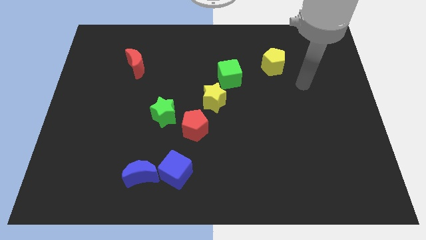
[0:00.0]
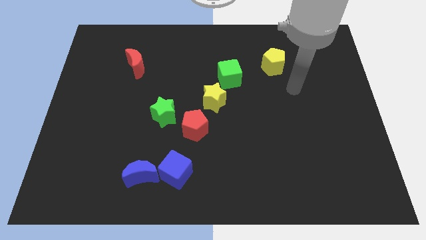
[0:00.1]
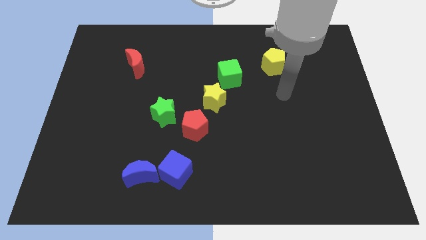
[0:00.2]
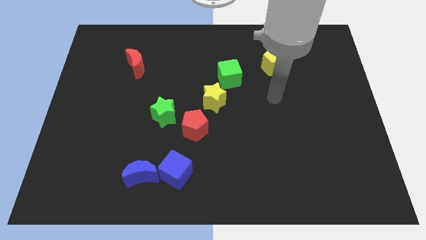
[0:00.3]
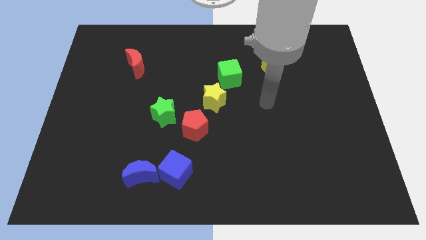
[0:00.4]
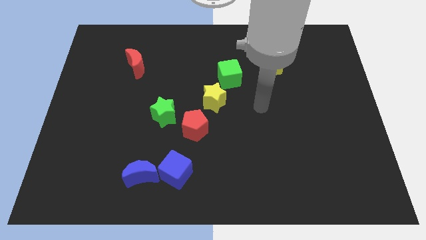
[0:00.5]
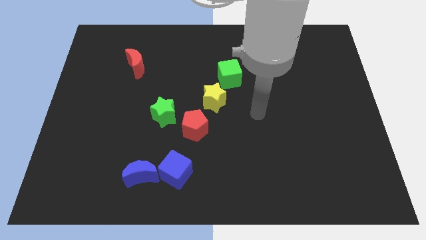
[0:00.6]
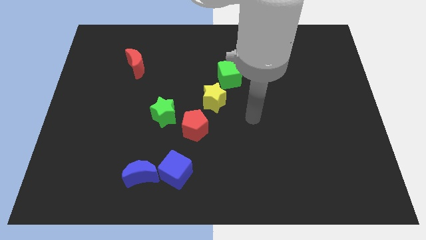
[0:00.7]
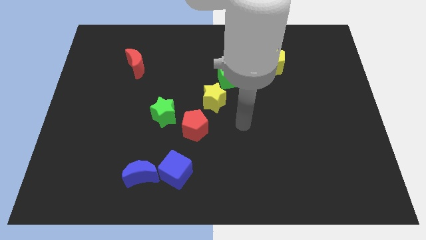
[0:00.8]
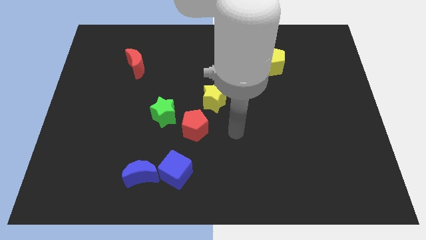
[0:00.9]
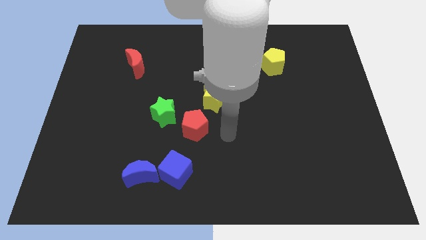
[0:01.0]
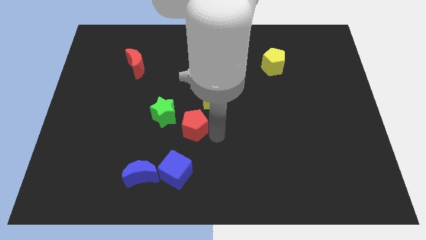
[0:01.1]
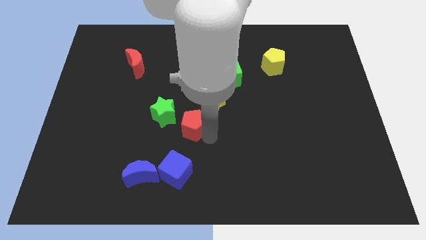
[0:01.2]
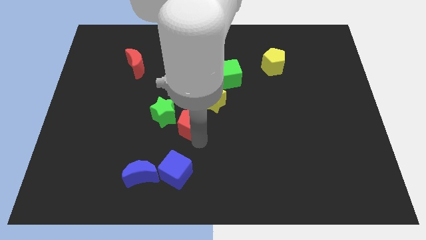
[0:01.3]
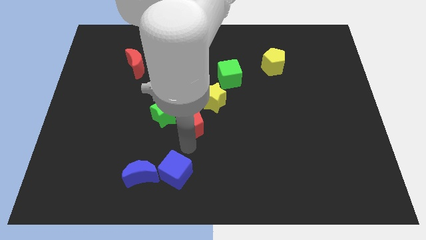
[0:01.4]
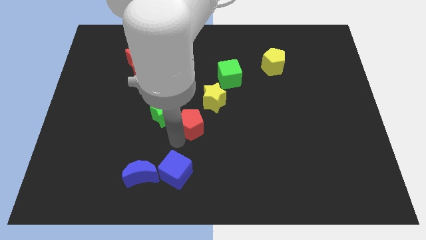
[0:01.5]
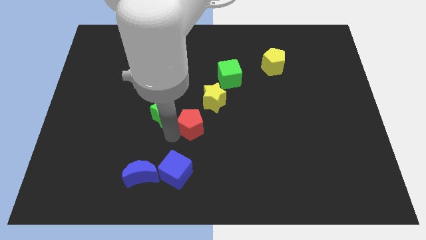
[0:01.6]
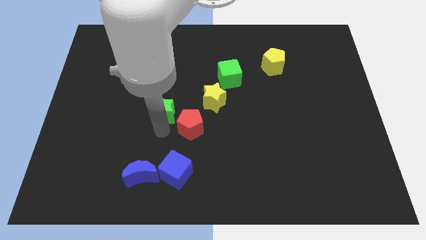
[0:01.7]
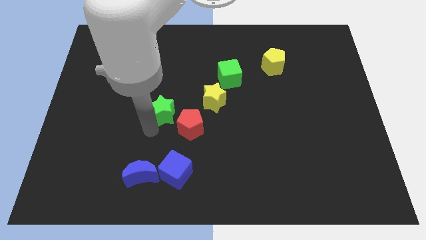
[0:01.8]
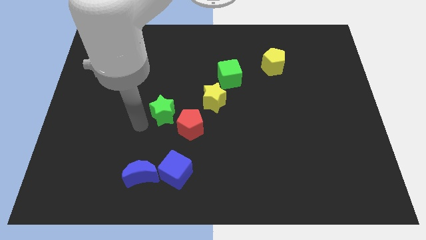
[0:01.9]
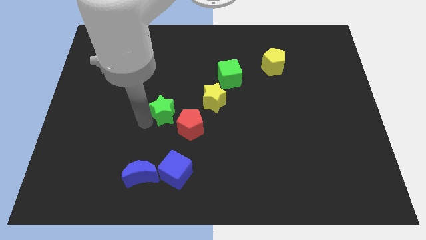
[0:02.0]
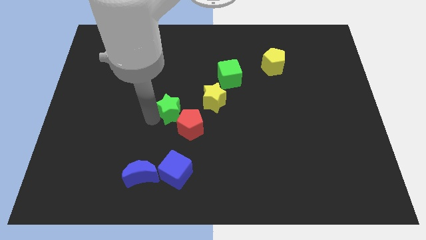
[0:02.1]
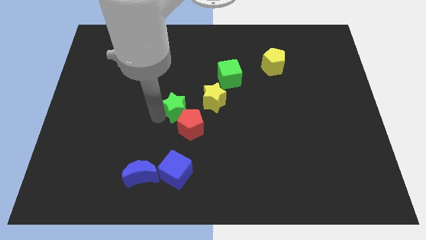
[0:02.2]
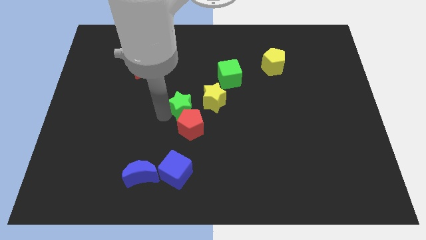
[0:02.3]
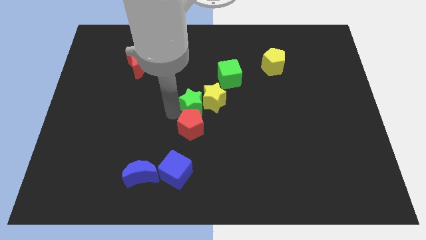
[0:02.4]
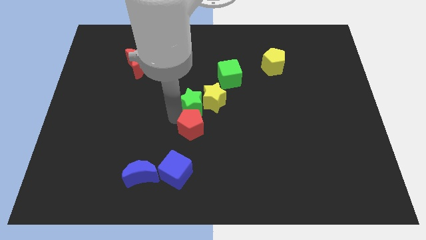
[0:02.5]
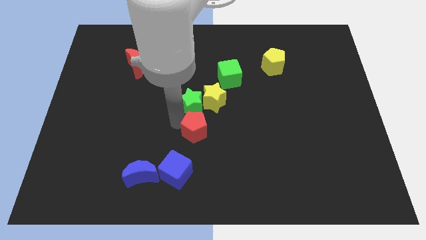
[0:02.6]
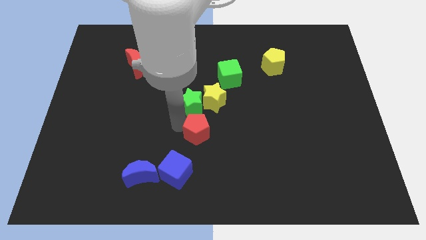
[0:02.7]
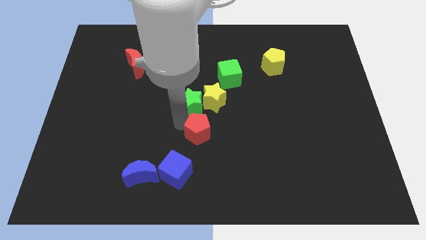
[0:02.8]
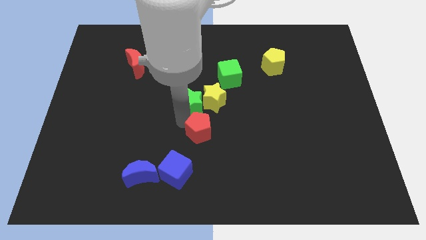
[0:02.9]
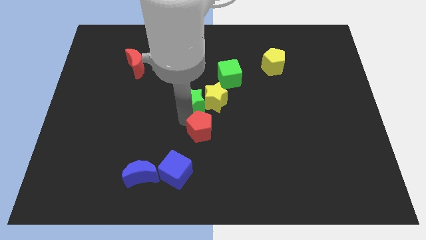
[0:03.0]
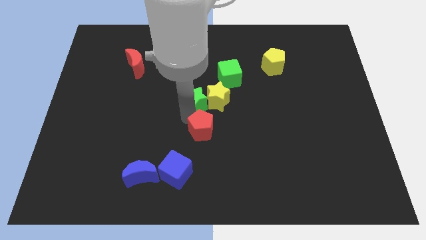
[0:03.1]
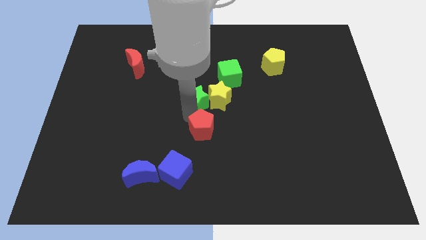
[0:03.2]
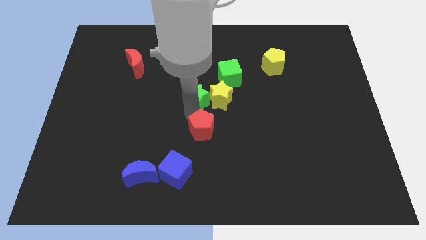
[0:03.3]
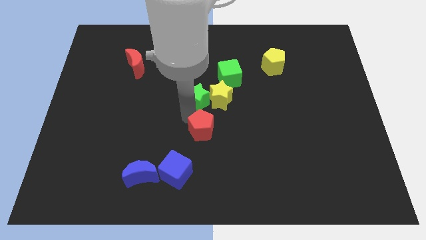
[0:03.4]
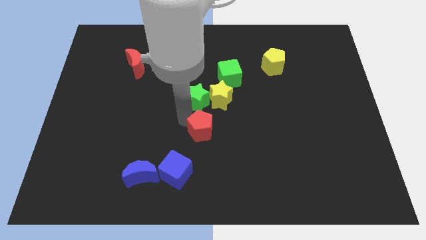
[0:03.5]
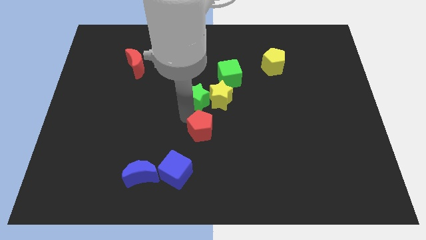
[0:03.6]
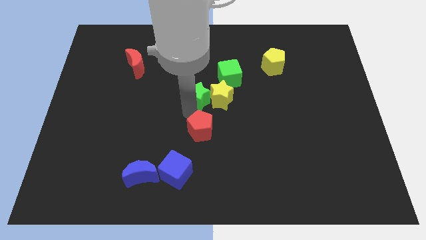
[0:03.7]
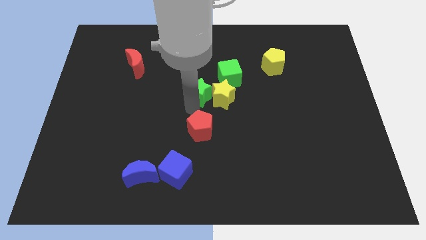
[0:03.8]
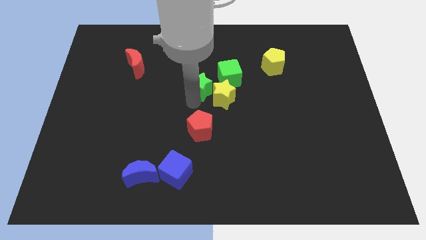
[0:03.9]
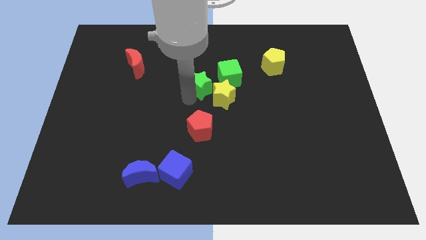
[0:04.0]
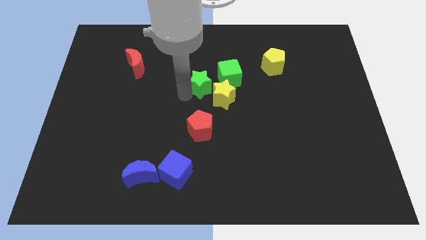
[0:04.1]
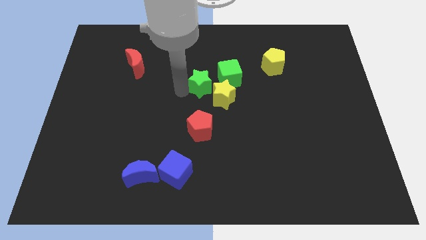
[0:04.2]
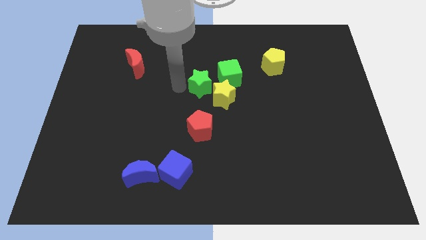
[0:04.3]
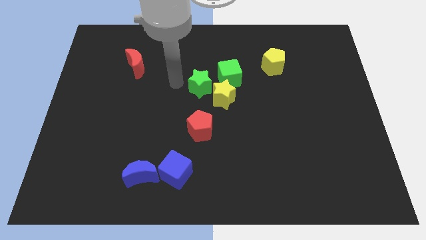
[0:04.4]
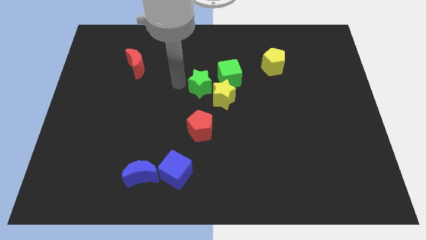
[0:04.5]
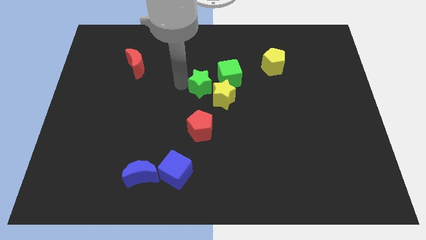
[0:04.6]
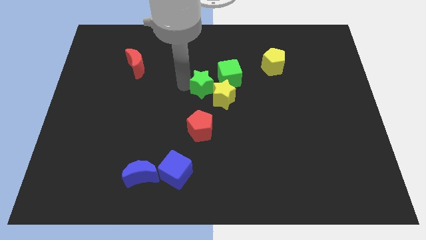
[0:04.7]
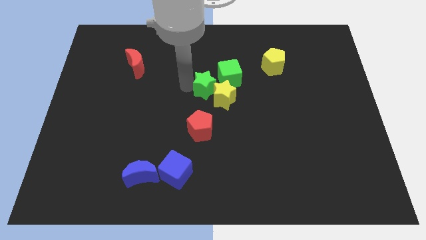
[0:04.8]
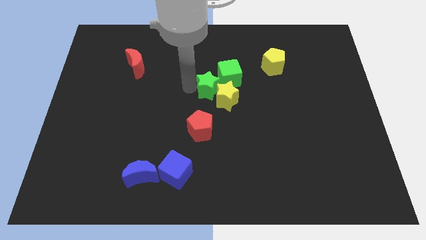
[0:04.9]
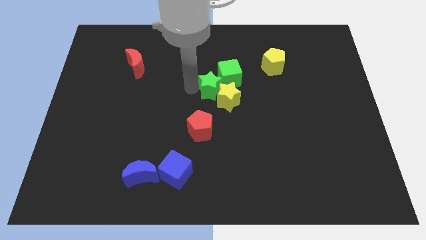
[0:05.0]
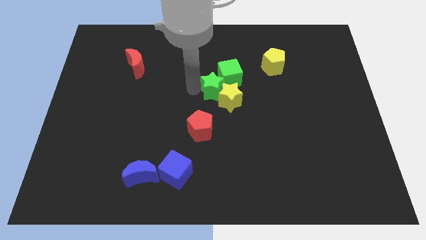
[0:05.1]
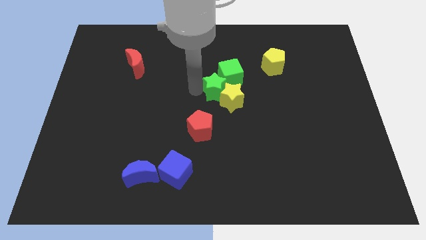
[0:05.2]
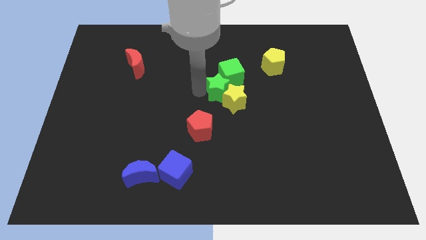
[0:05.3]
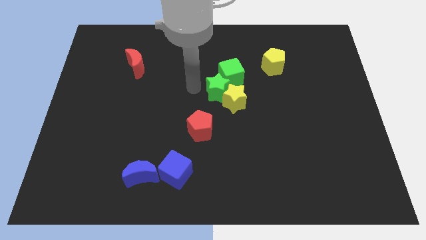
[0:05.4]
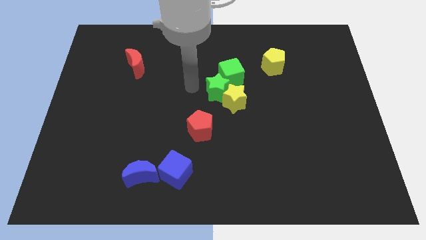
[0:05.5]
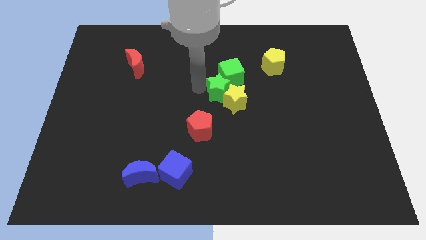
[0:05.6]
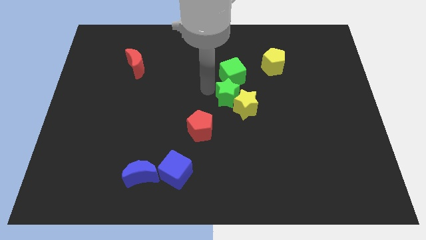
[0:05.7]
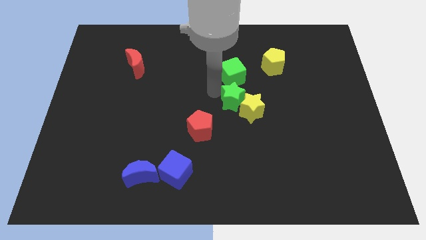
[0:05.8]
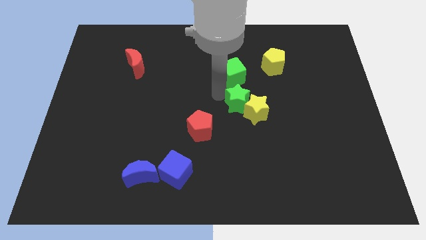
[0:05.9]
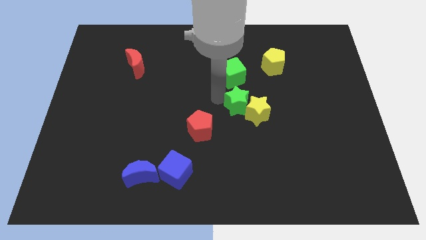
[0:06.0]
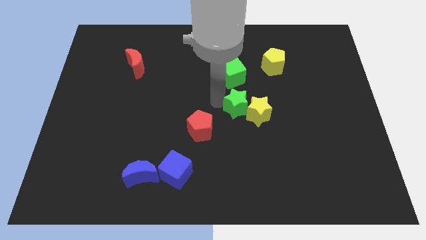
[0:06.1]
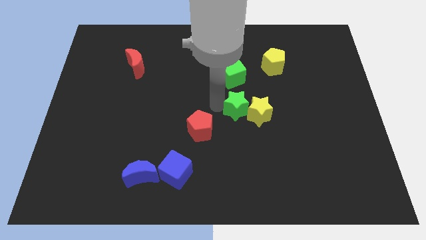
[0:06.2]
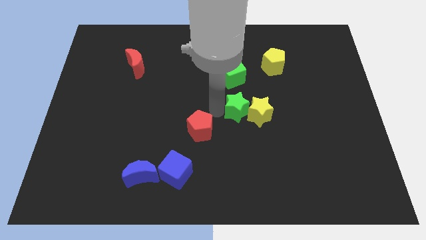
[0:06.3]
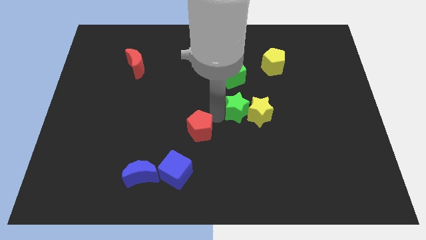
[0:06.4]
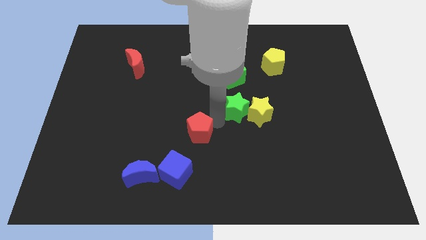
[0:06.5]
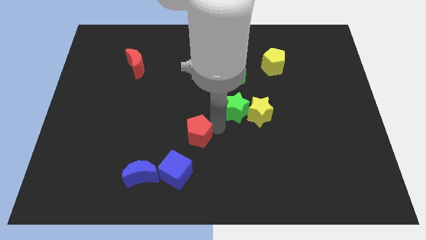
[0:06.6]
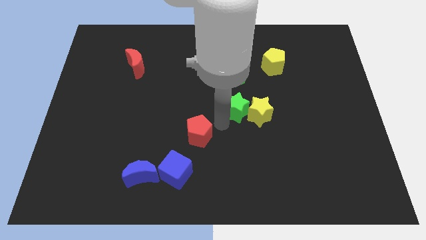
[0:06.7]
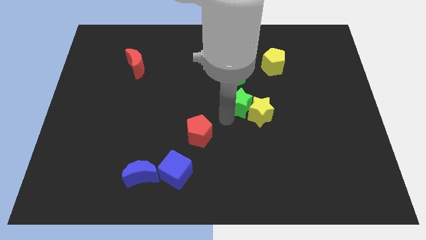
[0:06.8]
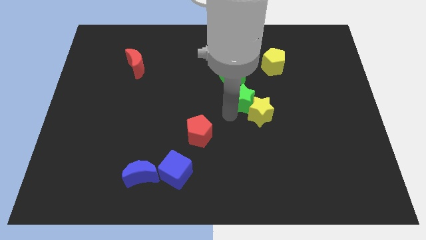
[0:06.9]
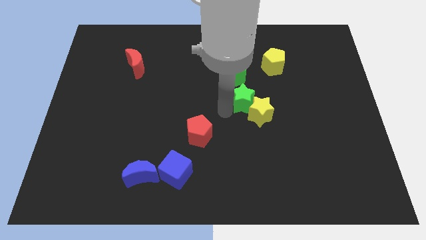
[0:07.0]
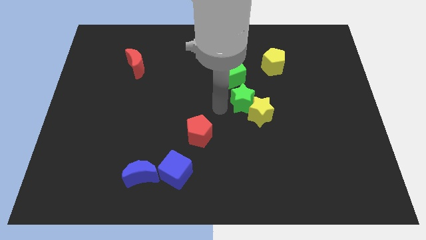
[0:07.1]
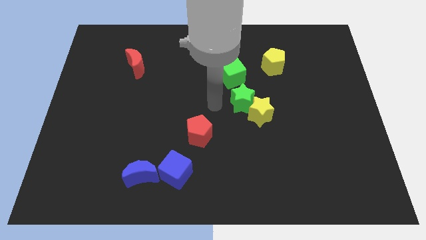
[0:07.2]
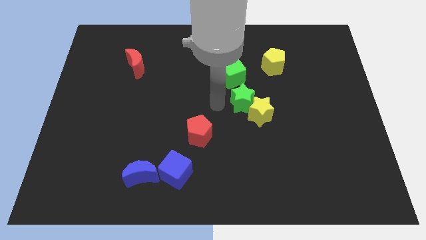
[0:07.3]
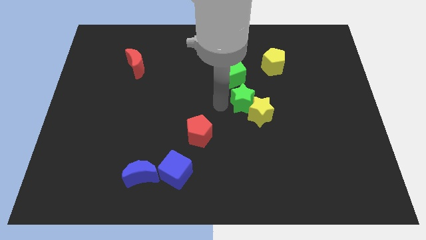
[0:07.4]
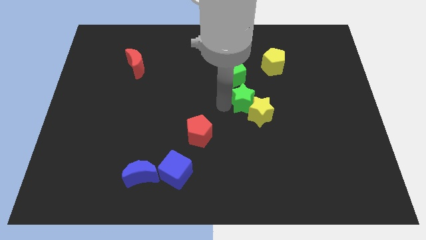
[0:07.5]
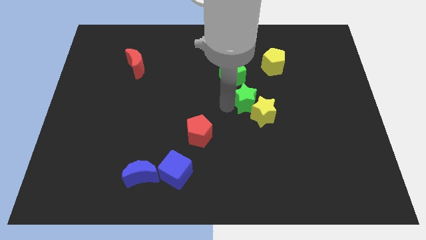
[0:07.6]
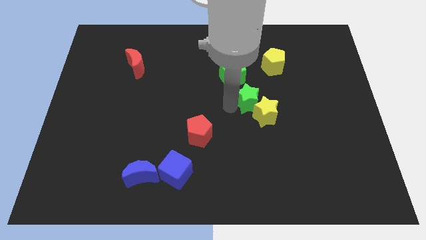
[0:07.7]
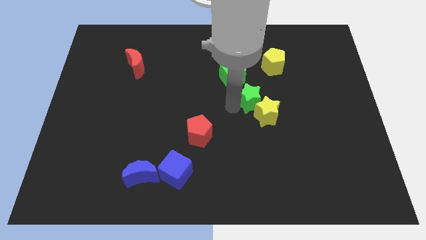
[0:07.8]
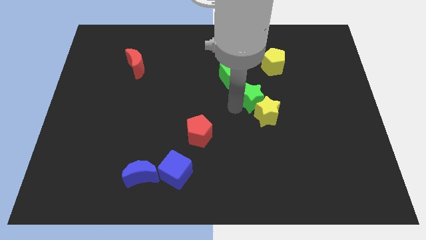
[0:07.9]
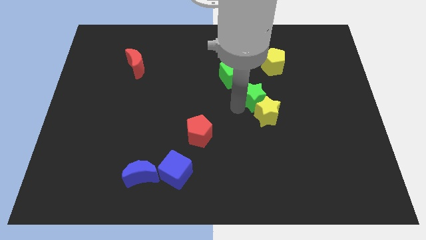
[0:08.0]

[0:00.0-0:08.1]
push the green star to the right
